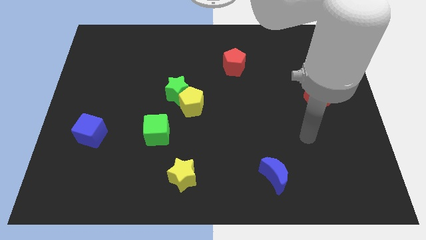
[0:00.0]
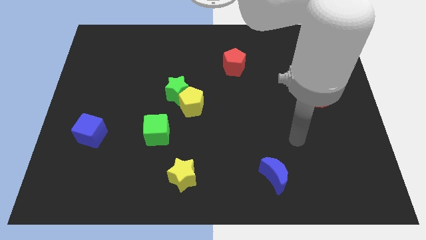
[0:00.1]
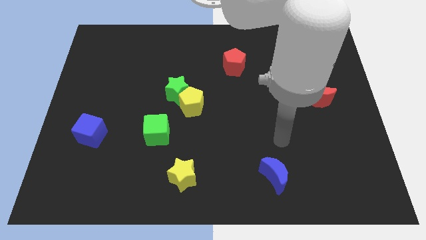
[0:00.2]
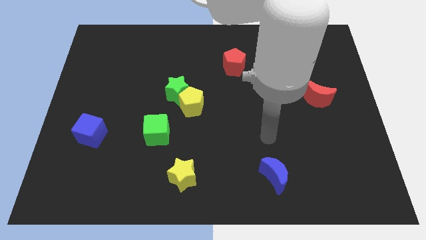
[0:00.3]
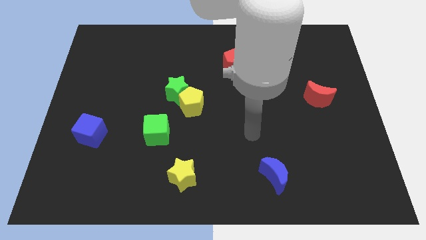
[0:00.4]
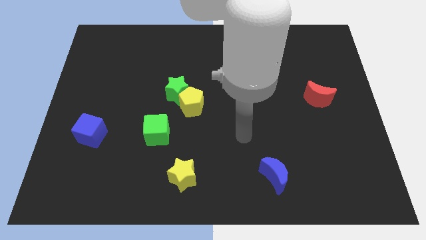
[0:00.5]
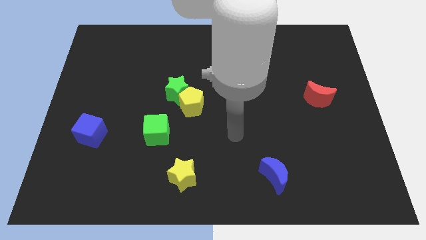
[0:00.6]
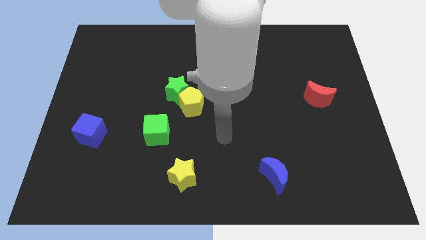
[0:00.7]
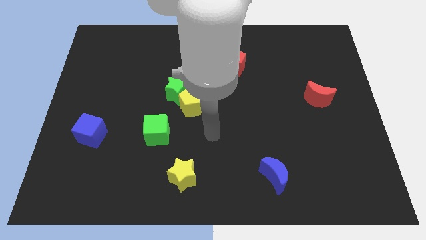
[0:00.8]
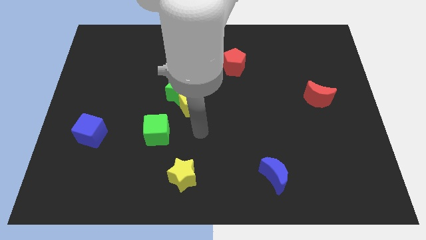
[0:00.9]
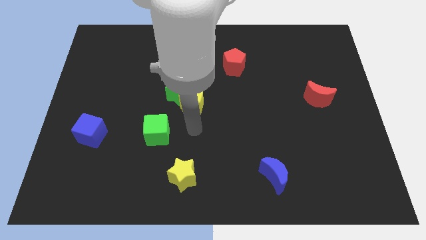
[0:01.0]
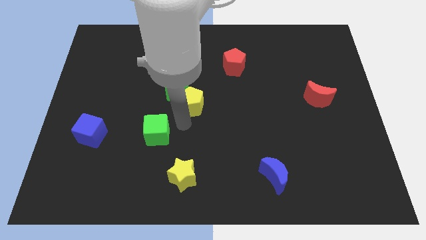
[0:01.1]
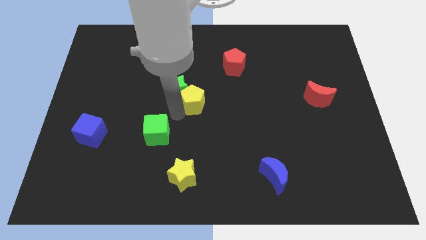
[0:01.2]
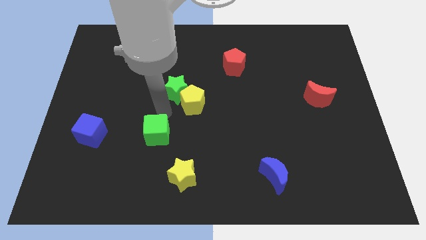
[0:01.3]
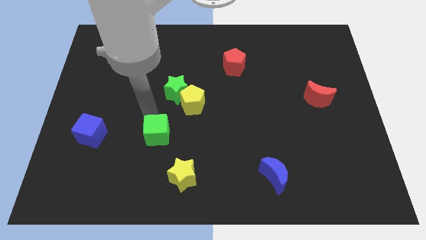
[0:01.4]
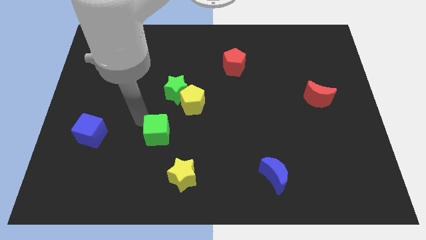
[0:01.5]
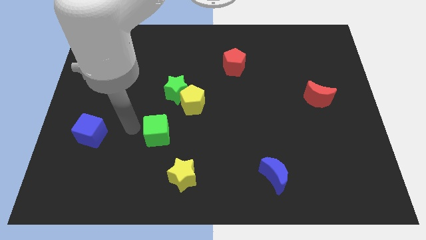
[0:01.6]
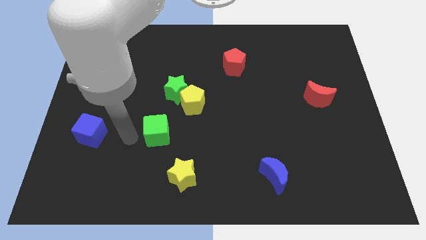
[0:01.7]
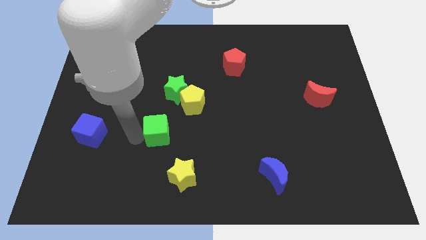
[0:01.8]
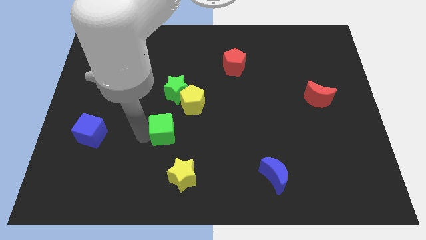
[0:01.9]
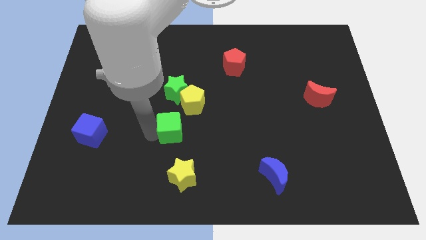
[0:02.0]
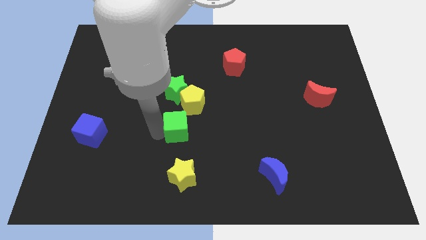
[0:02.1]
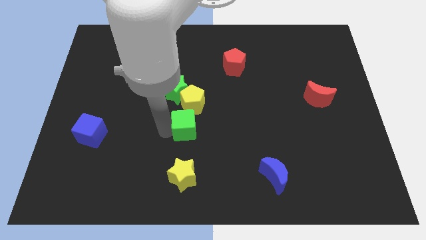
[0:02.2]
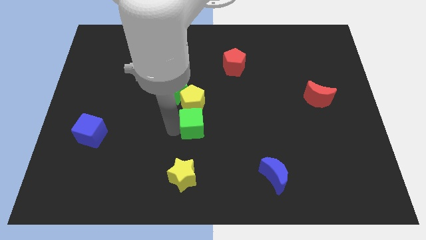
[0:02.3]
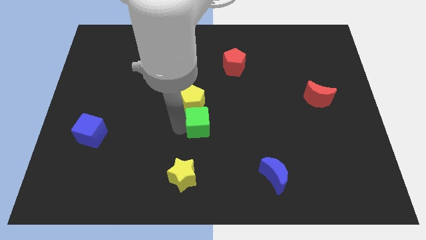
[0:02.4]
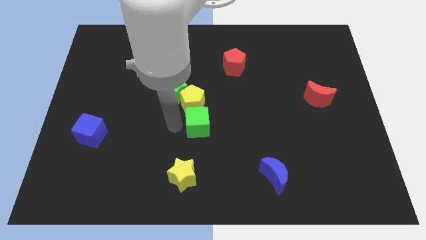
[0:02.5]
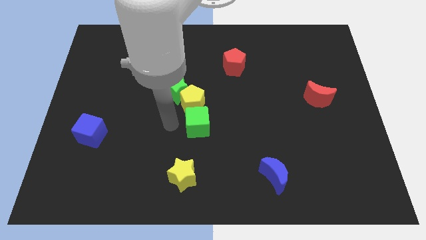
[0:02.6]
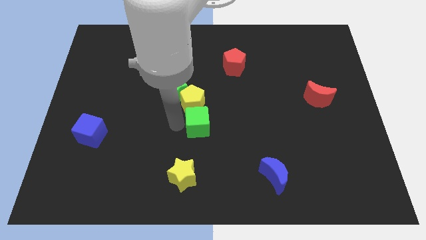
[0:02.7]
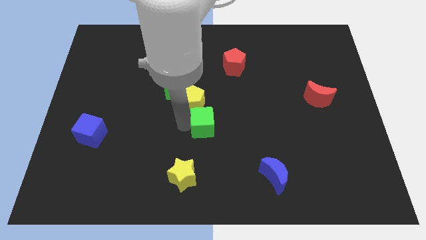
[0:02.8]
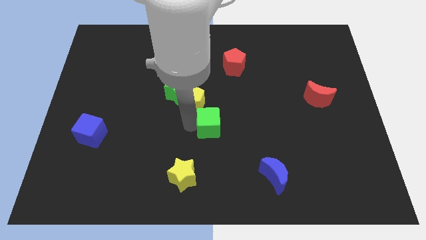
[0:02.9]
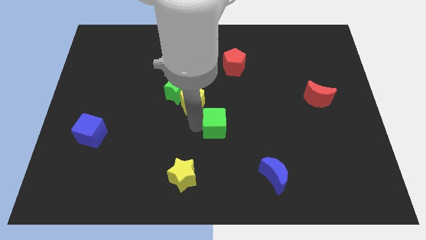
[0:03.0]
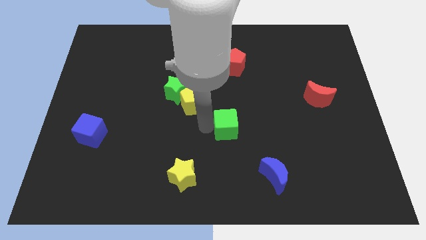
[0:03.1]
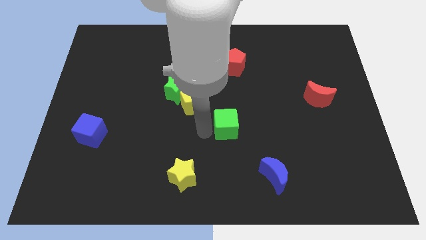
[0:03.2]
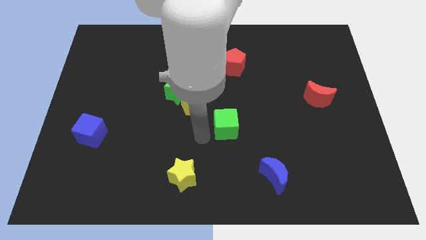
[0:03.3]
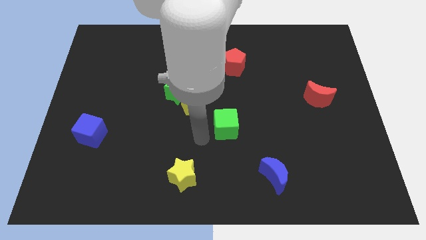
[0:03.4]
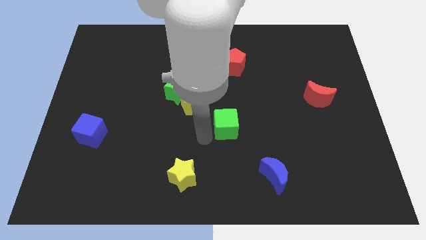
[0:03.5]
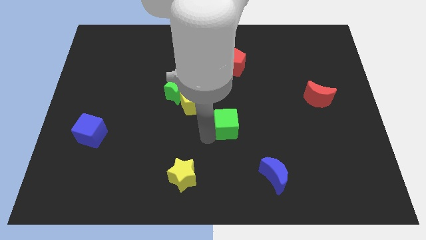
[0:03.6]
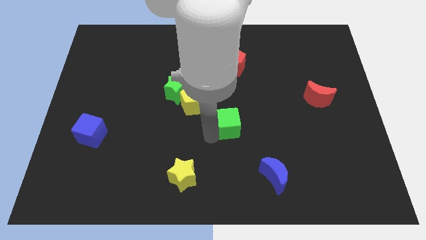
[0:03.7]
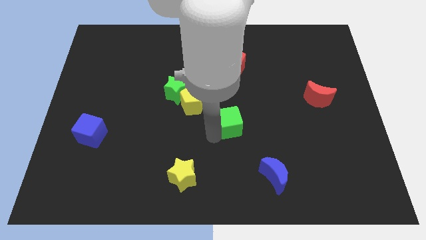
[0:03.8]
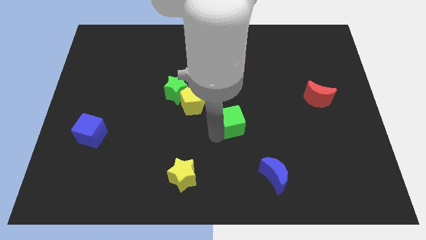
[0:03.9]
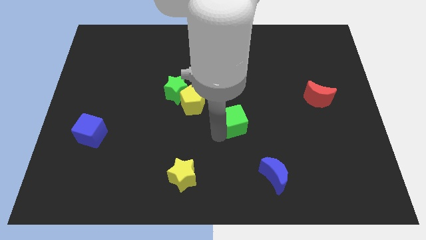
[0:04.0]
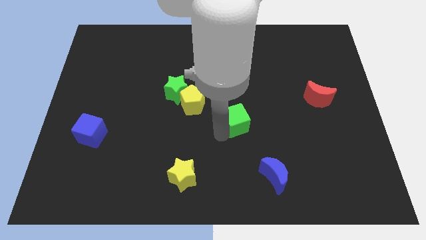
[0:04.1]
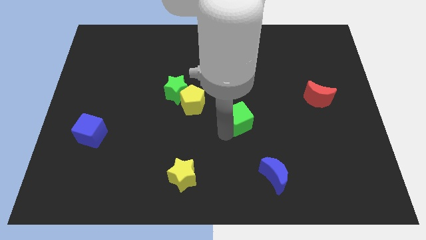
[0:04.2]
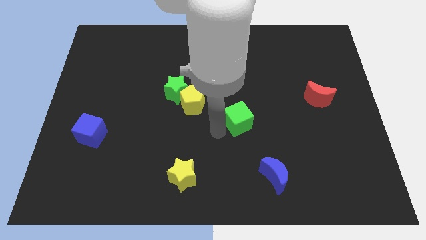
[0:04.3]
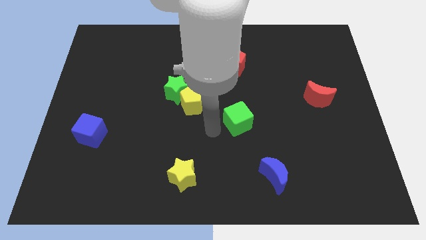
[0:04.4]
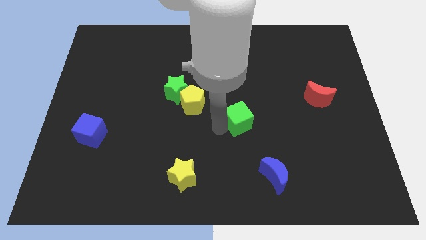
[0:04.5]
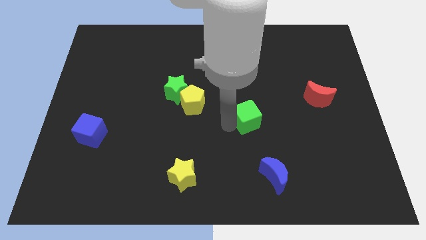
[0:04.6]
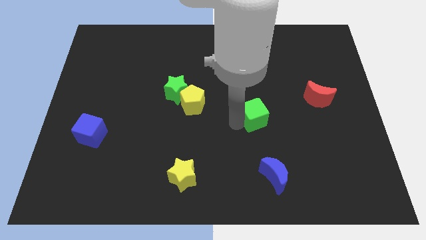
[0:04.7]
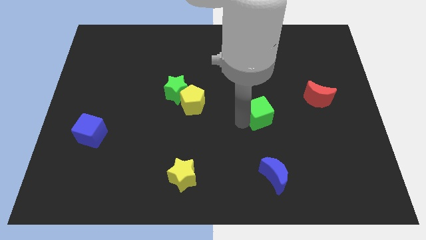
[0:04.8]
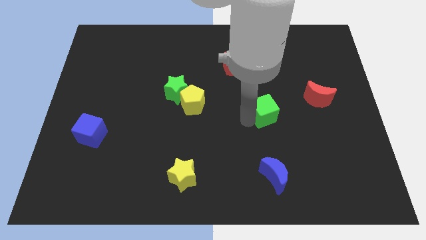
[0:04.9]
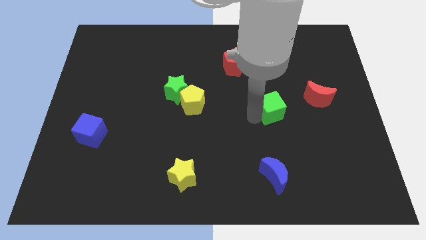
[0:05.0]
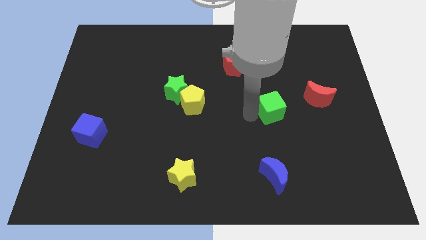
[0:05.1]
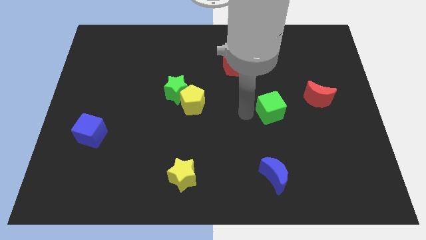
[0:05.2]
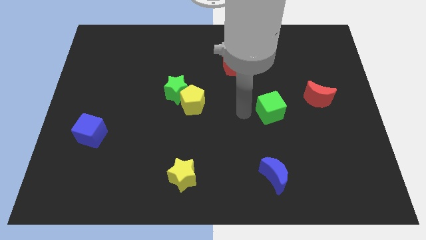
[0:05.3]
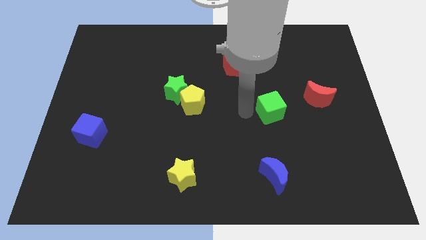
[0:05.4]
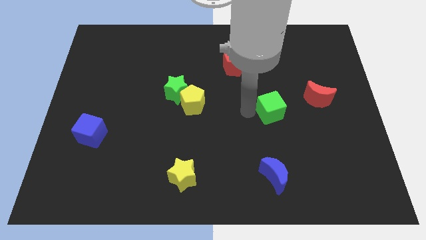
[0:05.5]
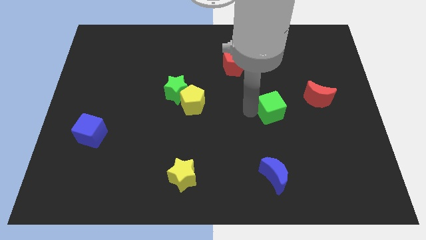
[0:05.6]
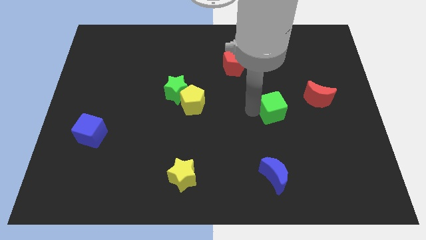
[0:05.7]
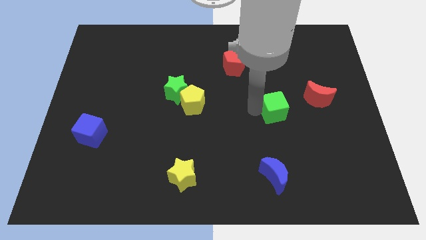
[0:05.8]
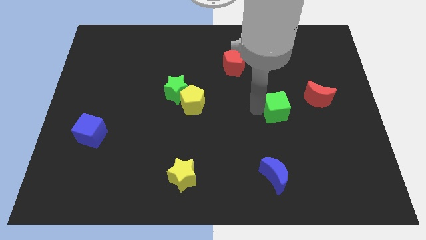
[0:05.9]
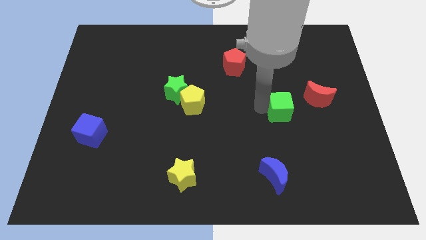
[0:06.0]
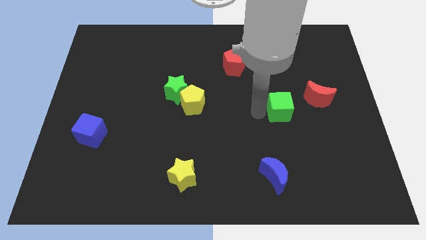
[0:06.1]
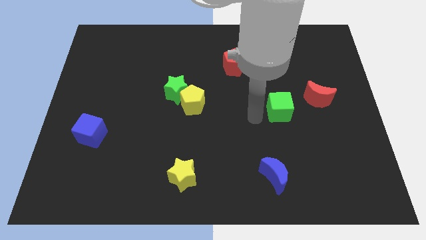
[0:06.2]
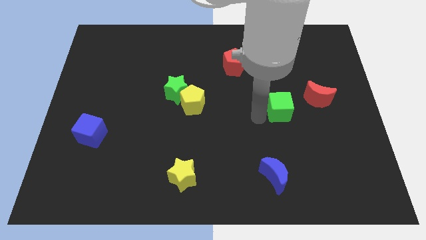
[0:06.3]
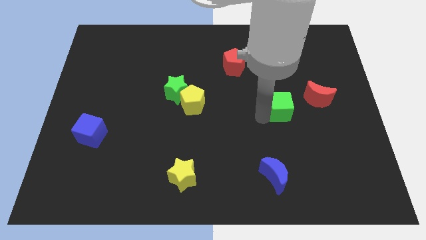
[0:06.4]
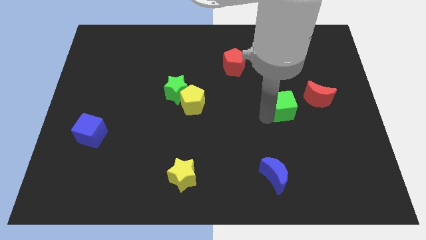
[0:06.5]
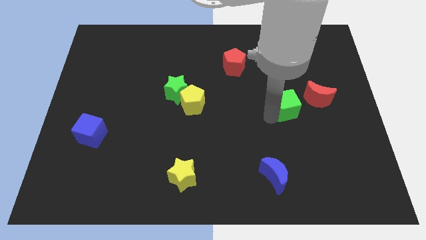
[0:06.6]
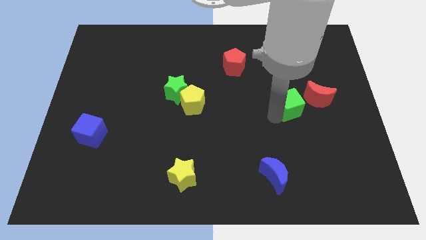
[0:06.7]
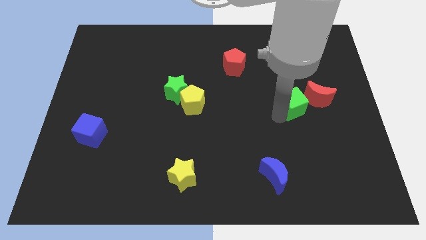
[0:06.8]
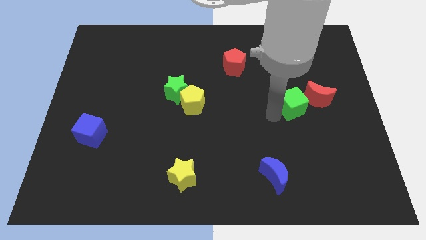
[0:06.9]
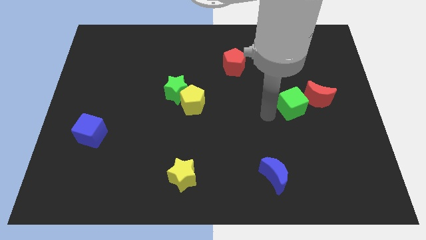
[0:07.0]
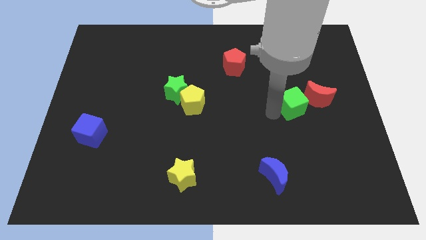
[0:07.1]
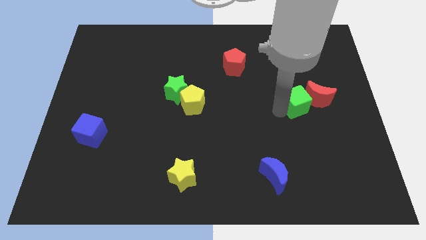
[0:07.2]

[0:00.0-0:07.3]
slide the green cube to the red moon
